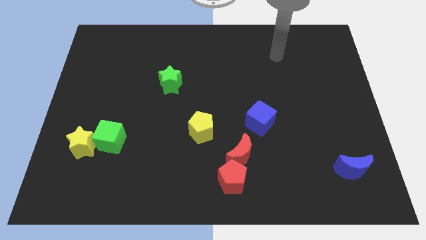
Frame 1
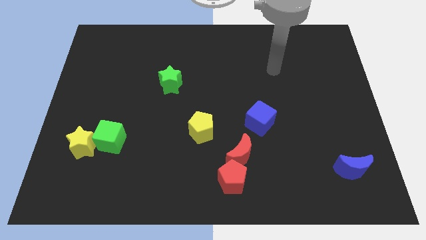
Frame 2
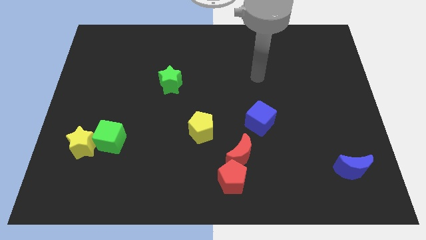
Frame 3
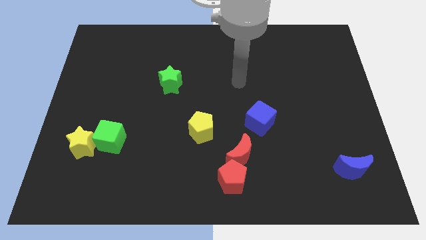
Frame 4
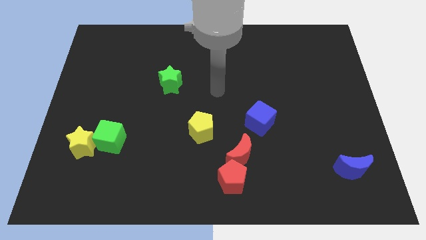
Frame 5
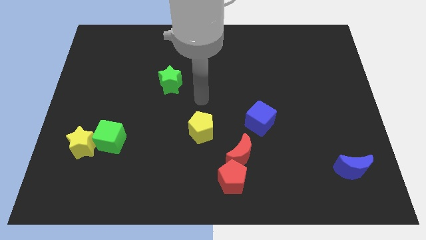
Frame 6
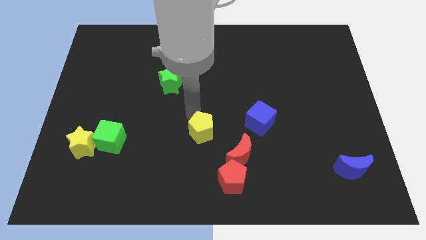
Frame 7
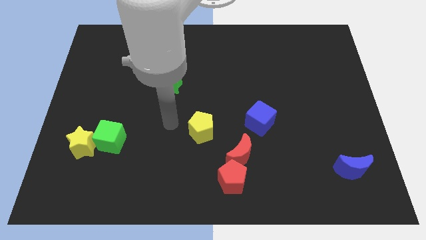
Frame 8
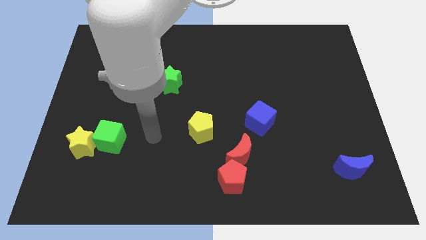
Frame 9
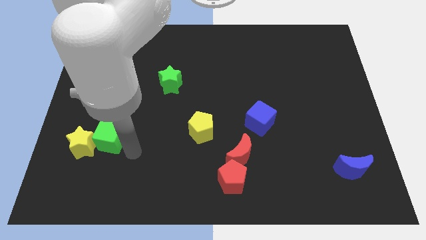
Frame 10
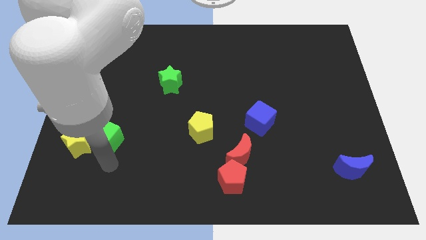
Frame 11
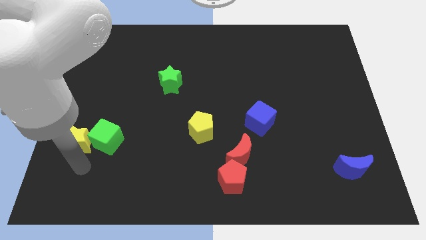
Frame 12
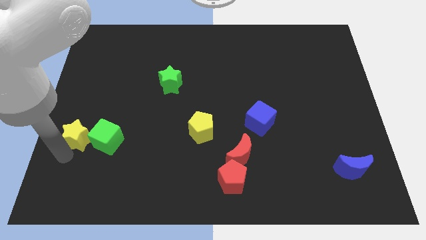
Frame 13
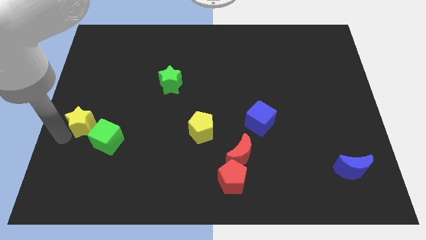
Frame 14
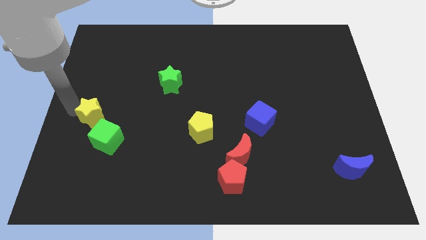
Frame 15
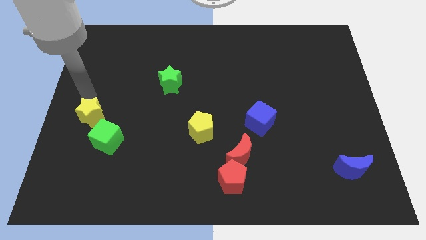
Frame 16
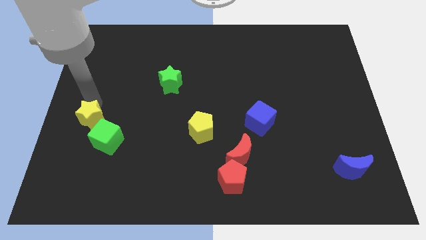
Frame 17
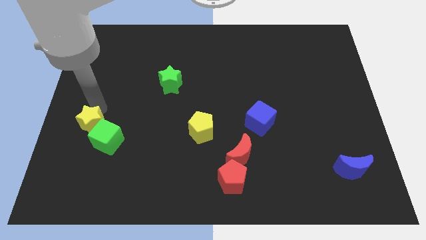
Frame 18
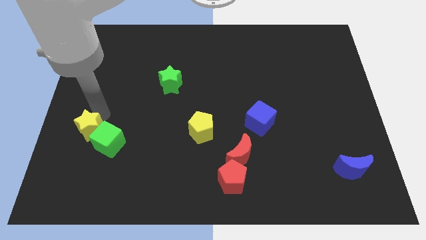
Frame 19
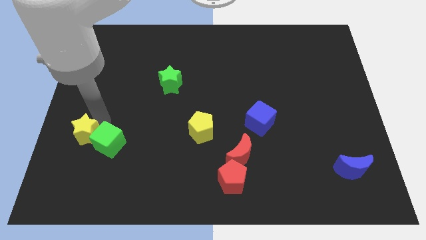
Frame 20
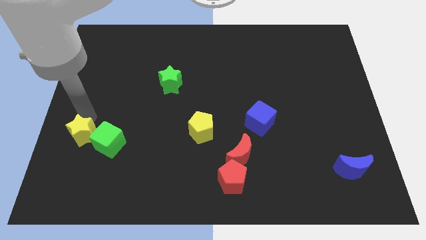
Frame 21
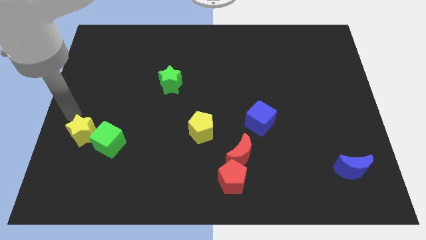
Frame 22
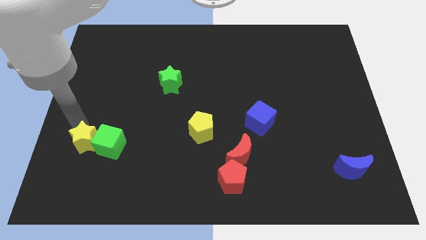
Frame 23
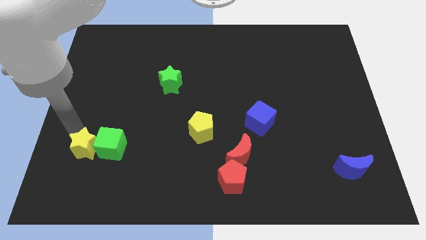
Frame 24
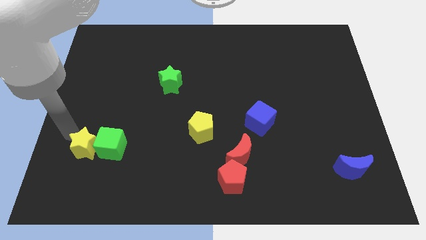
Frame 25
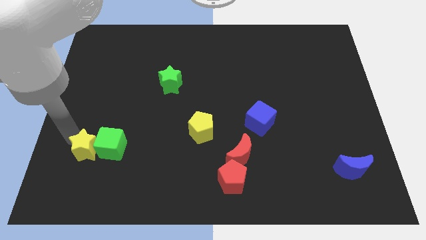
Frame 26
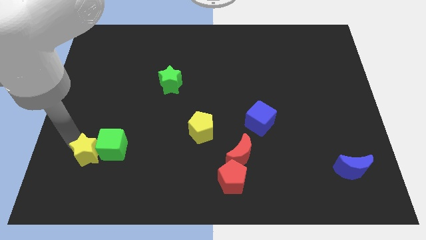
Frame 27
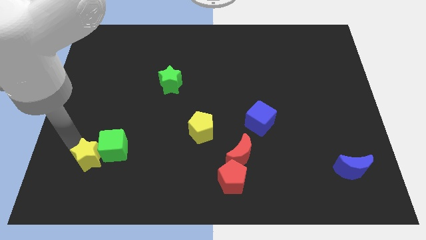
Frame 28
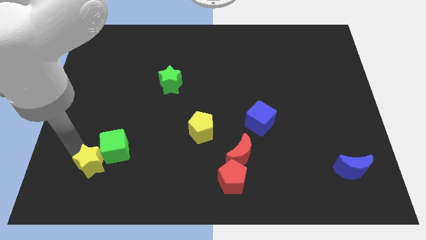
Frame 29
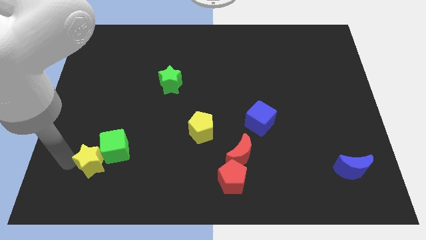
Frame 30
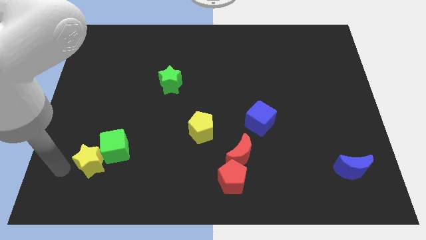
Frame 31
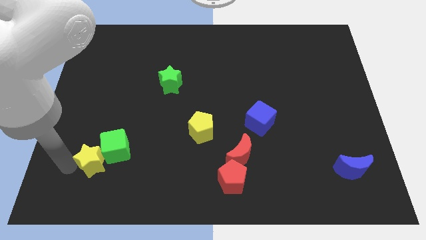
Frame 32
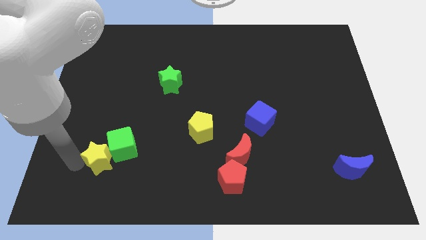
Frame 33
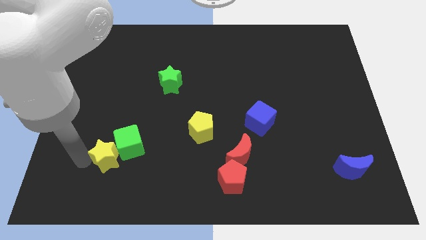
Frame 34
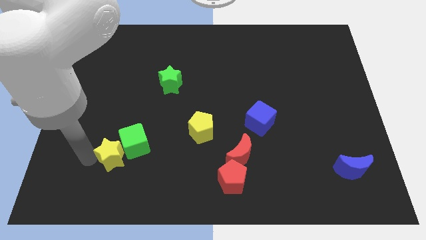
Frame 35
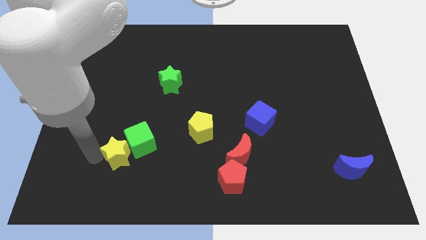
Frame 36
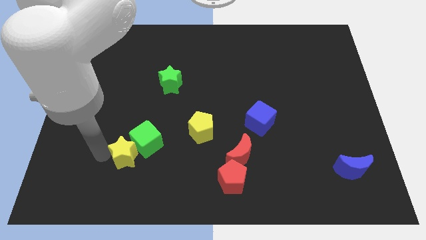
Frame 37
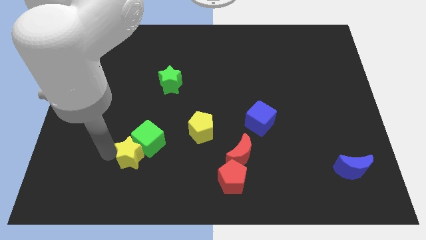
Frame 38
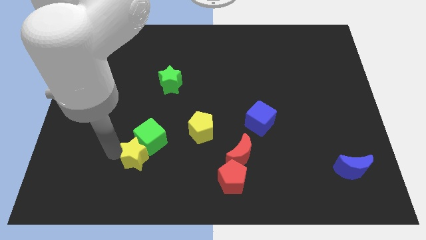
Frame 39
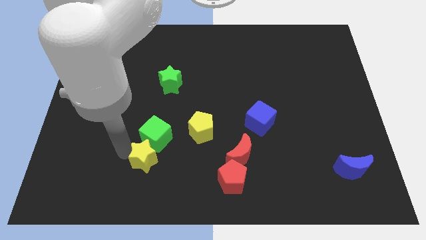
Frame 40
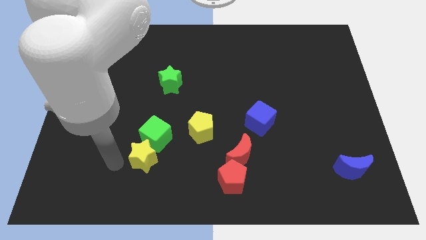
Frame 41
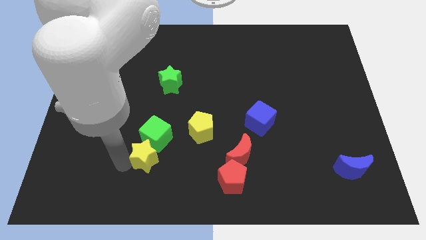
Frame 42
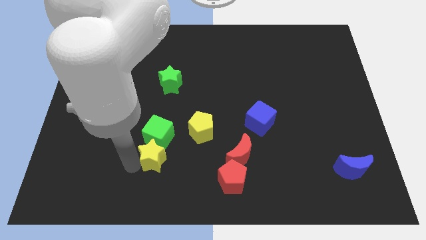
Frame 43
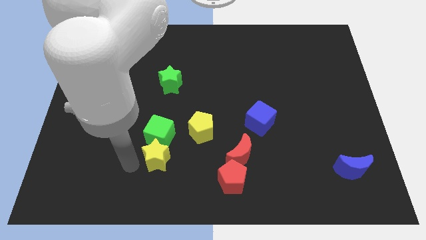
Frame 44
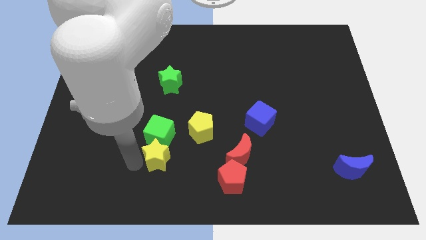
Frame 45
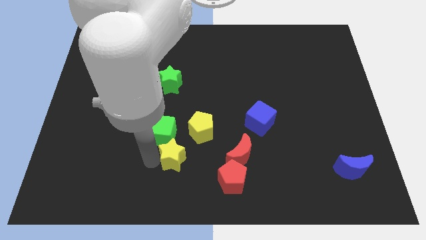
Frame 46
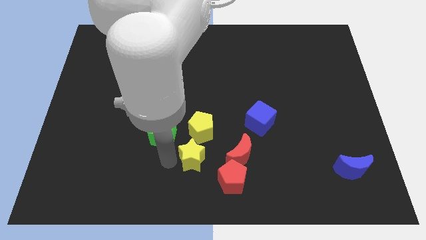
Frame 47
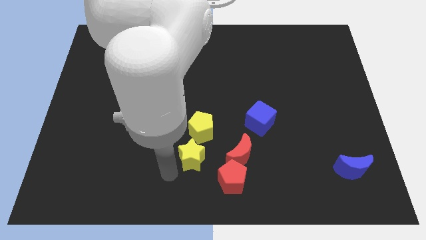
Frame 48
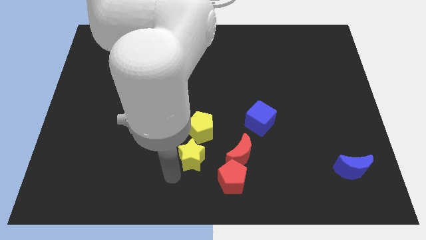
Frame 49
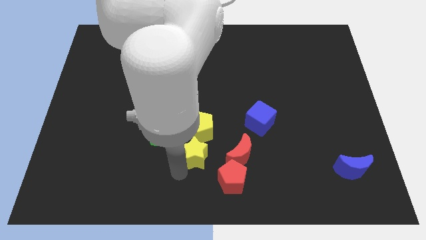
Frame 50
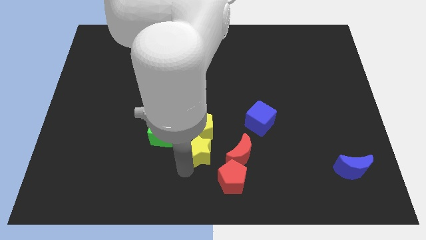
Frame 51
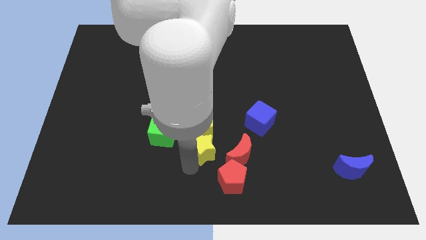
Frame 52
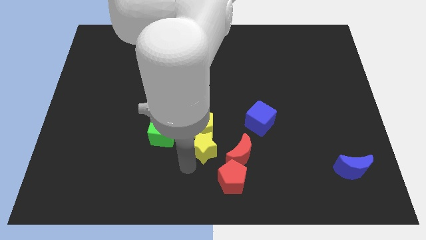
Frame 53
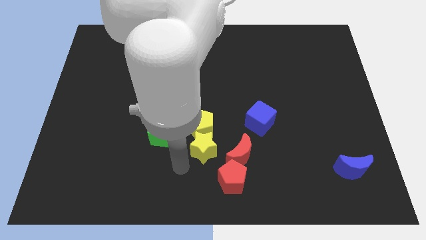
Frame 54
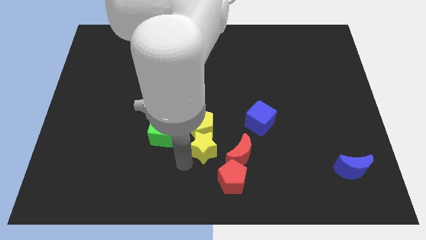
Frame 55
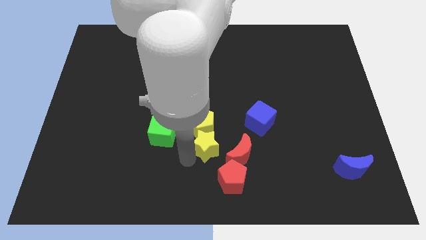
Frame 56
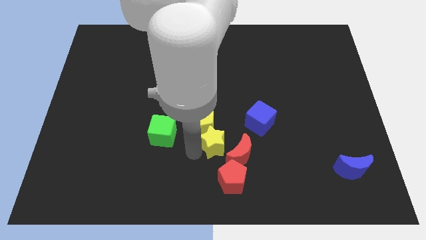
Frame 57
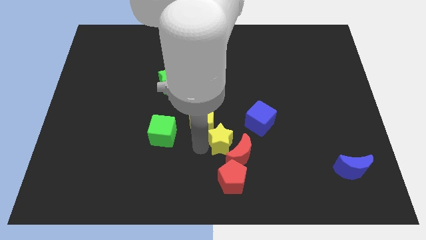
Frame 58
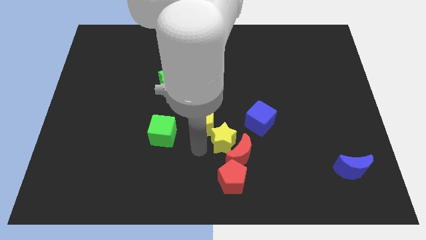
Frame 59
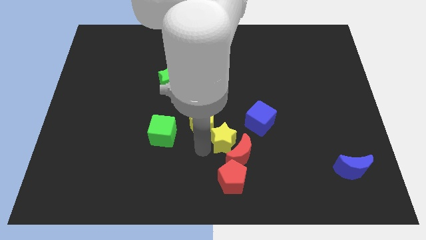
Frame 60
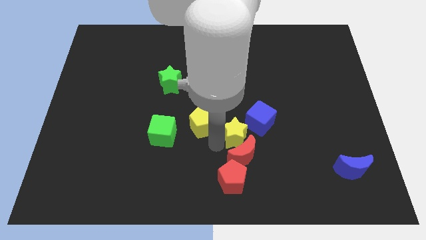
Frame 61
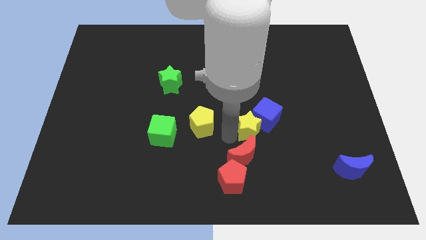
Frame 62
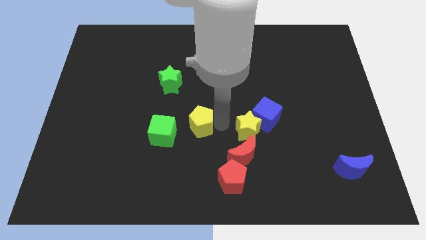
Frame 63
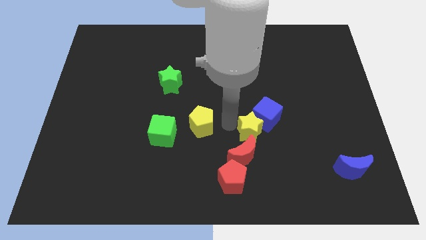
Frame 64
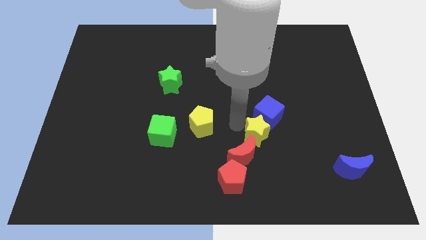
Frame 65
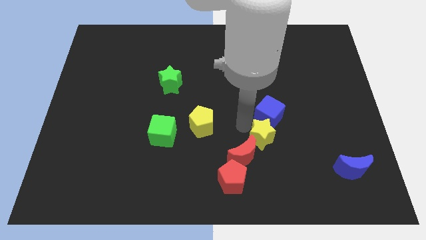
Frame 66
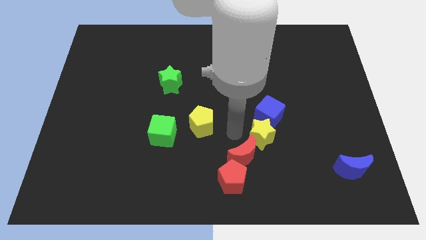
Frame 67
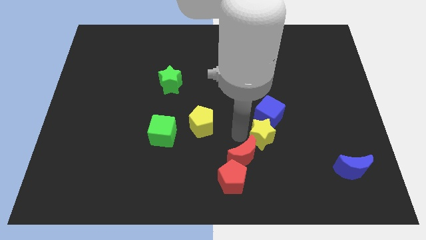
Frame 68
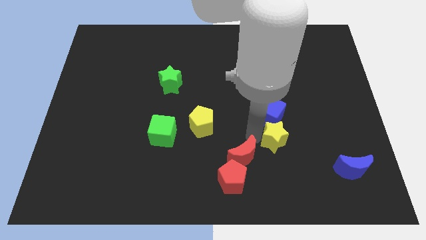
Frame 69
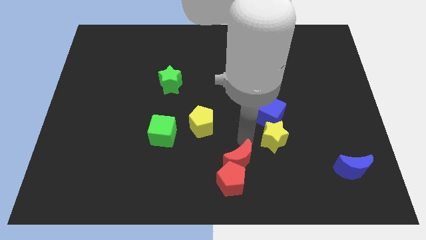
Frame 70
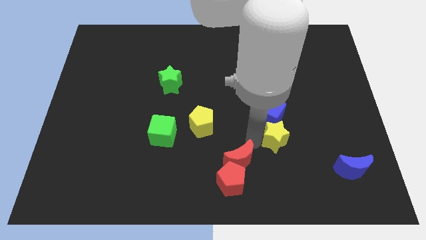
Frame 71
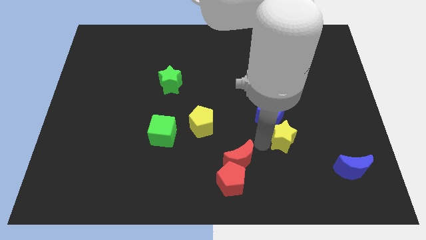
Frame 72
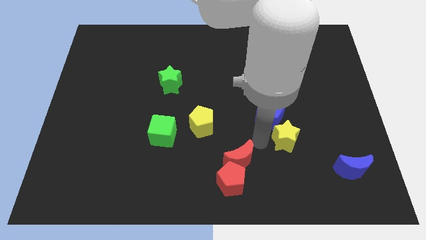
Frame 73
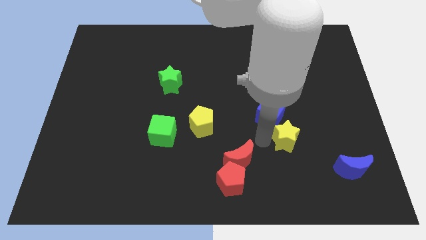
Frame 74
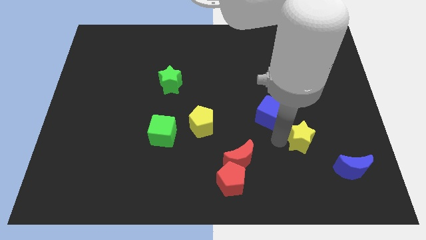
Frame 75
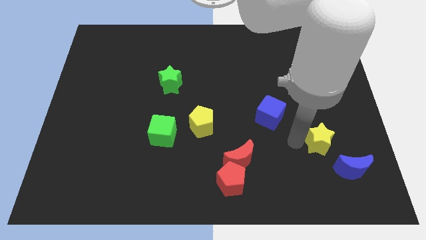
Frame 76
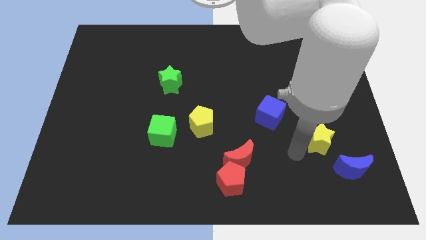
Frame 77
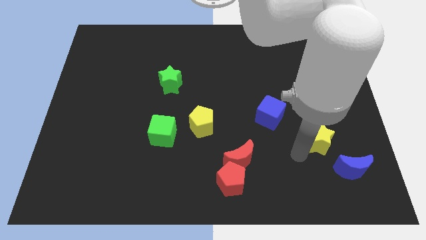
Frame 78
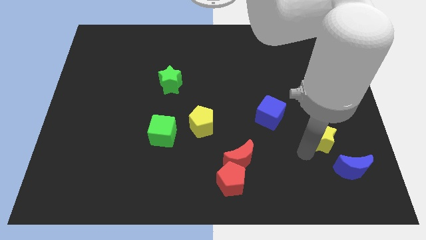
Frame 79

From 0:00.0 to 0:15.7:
move the yellow star above the blue moon
